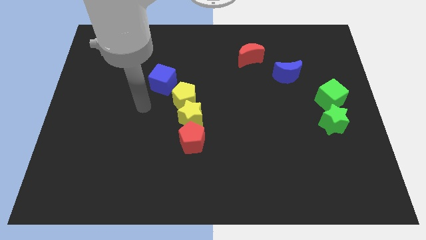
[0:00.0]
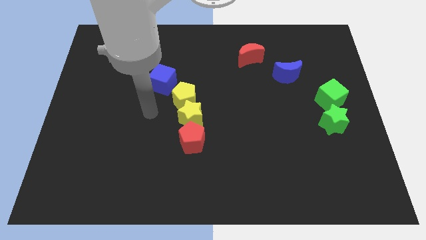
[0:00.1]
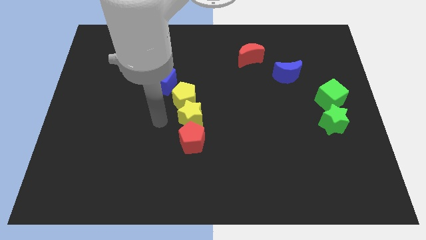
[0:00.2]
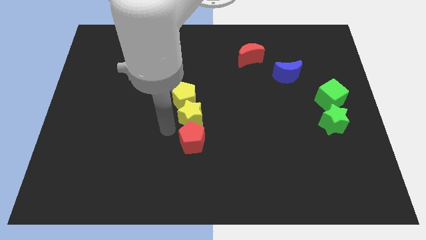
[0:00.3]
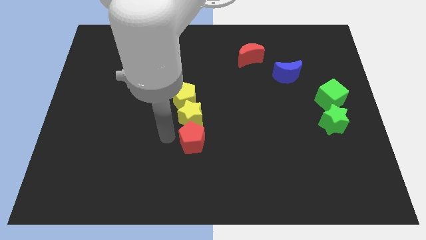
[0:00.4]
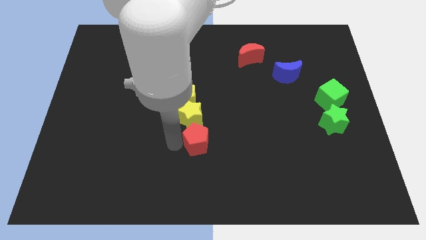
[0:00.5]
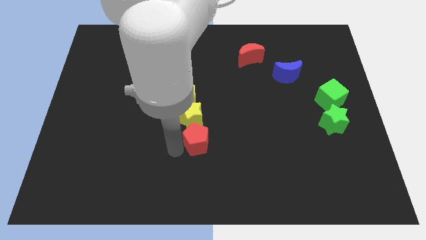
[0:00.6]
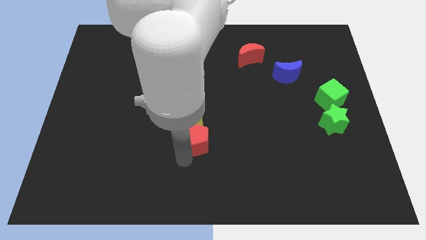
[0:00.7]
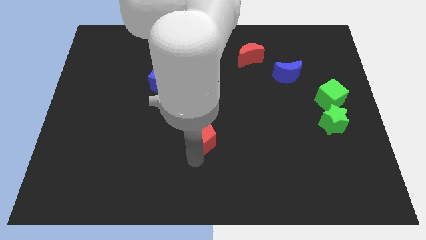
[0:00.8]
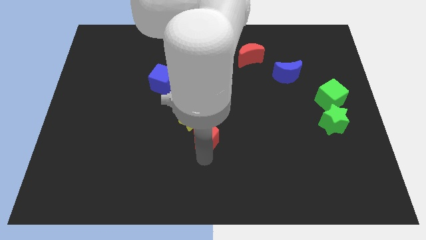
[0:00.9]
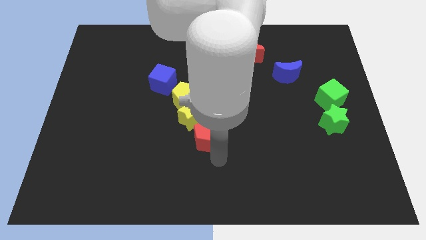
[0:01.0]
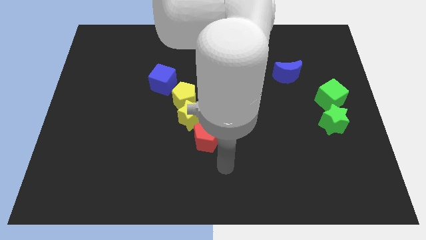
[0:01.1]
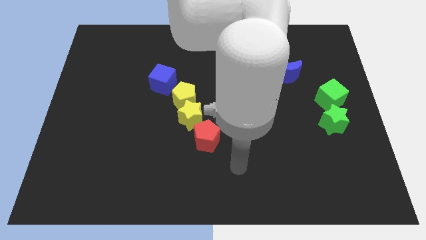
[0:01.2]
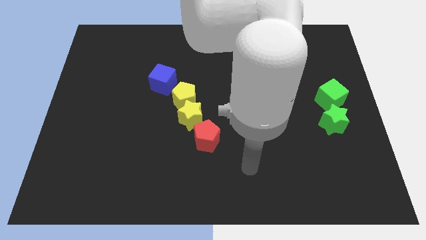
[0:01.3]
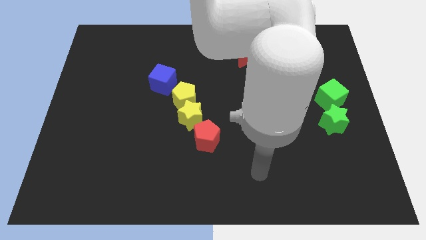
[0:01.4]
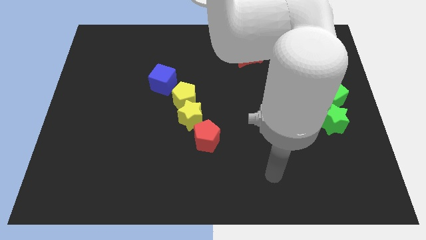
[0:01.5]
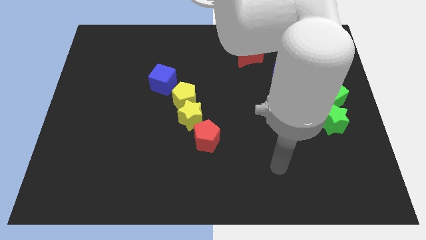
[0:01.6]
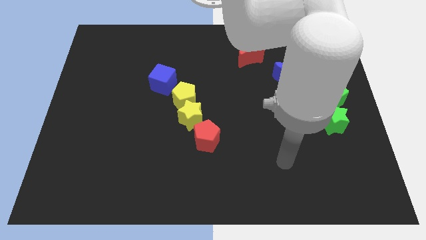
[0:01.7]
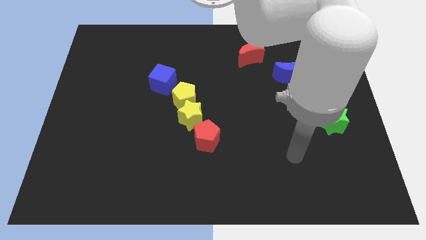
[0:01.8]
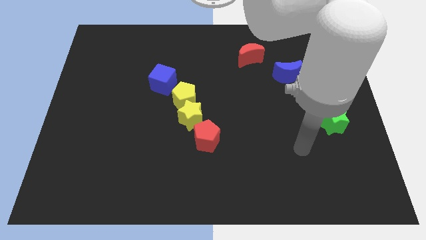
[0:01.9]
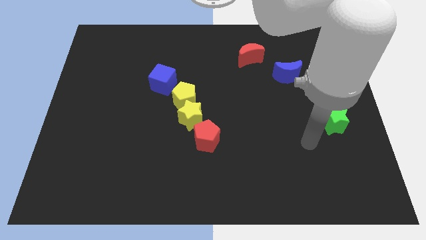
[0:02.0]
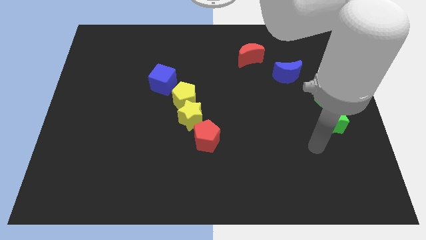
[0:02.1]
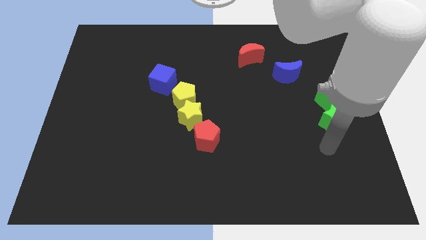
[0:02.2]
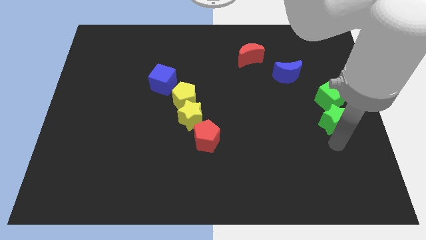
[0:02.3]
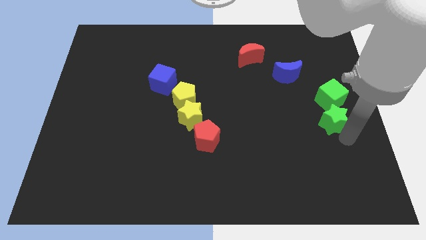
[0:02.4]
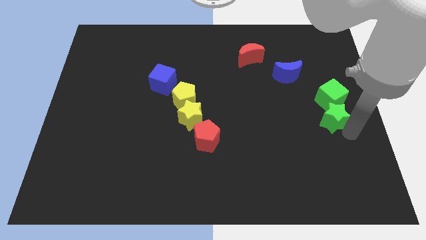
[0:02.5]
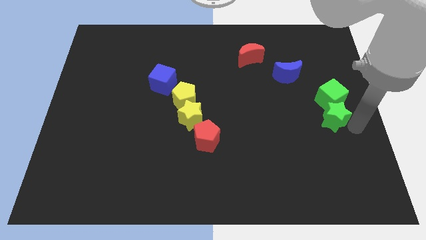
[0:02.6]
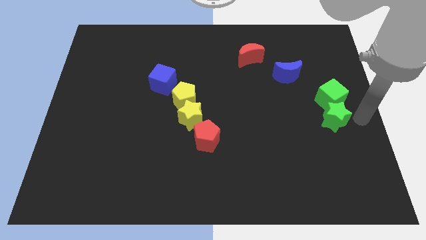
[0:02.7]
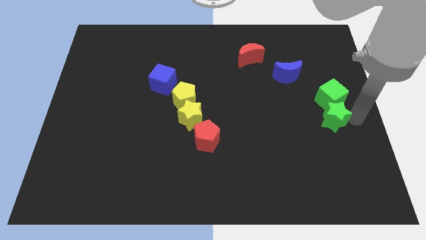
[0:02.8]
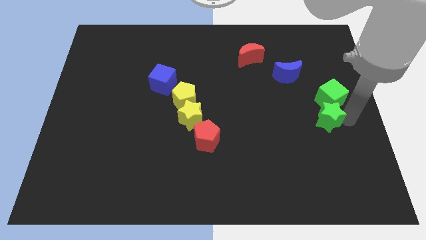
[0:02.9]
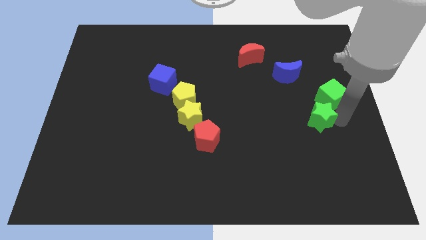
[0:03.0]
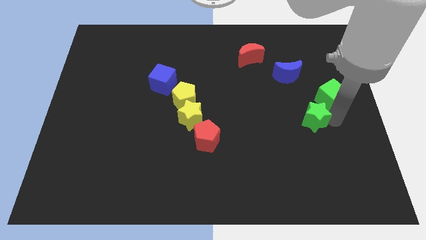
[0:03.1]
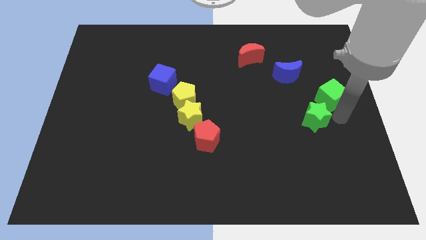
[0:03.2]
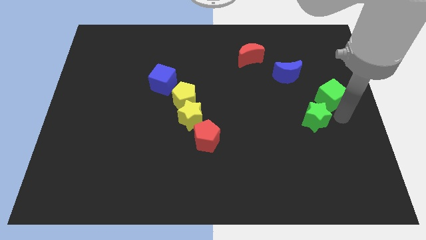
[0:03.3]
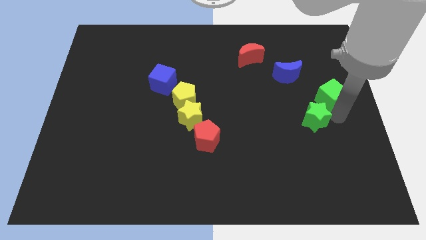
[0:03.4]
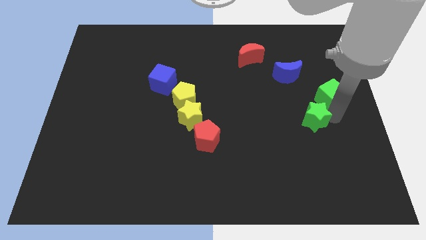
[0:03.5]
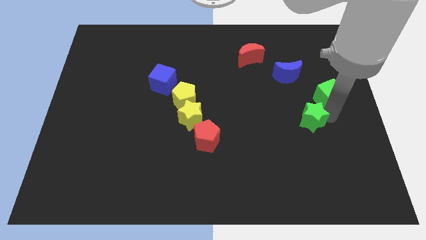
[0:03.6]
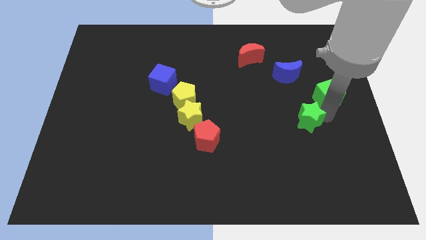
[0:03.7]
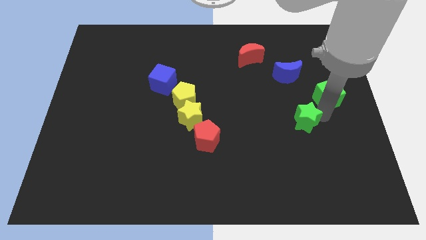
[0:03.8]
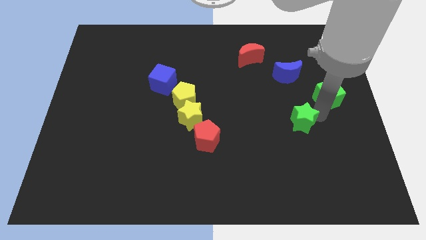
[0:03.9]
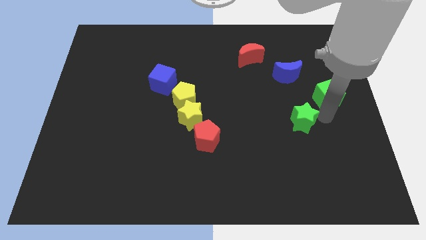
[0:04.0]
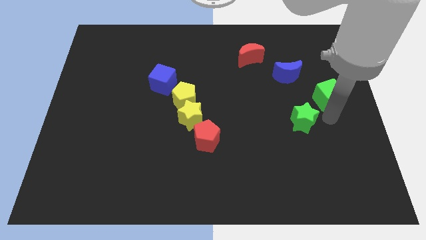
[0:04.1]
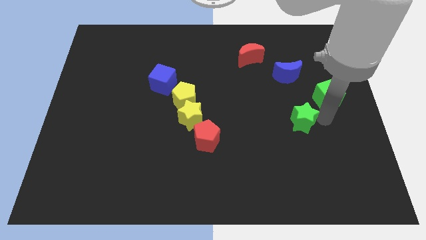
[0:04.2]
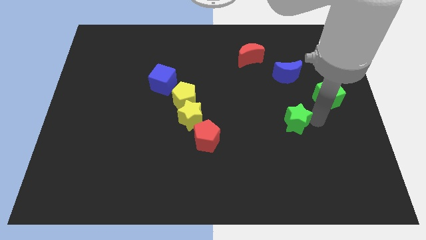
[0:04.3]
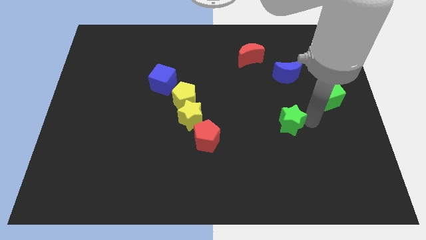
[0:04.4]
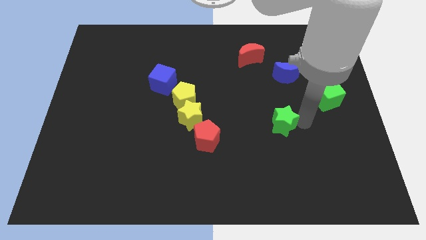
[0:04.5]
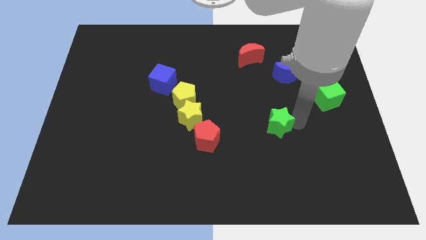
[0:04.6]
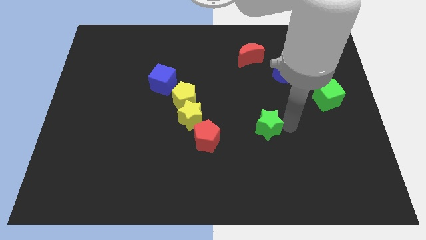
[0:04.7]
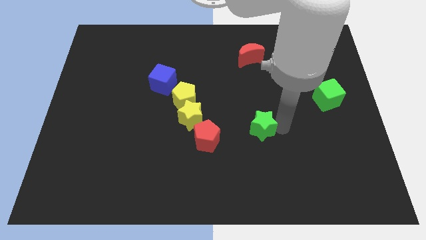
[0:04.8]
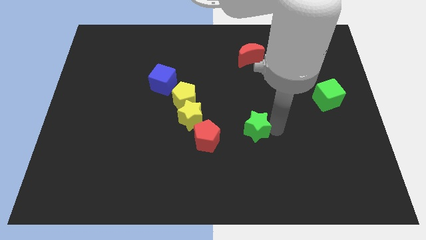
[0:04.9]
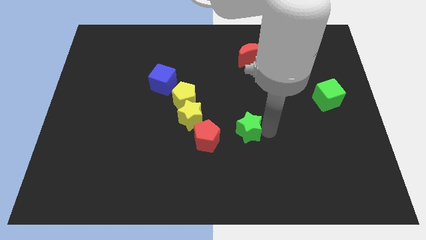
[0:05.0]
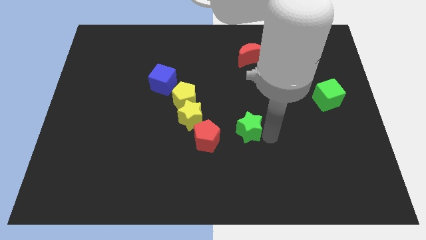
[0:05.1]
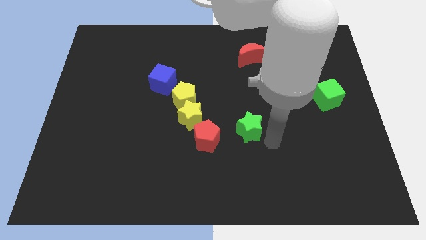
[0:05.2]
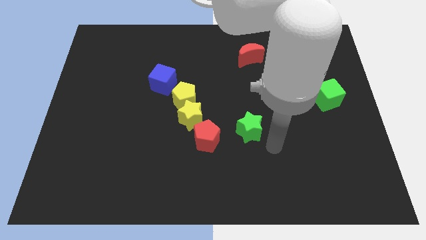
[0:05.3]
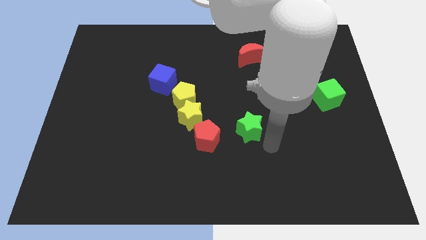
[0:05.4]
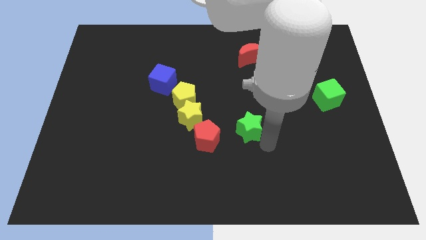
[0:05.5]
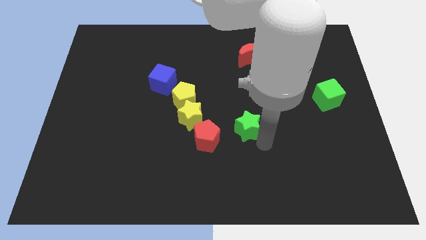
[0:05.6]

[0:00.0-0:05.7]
slide the green star to the top right of the red pentagon

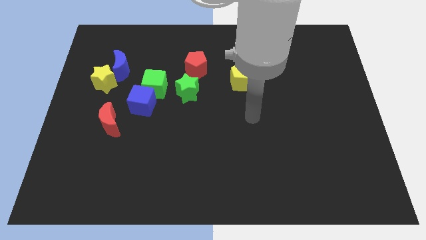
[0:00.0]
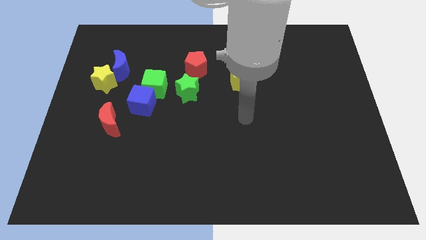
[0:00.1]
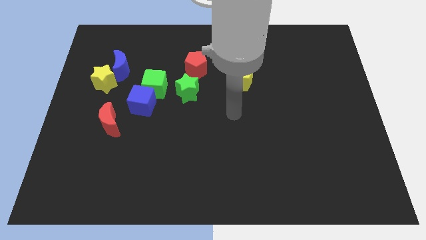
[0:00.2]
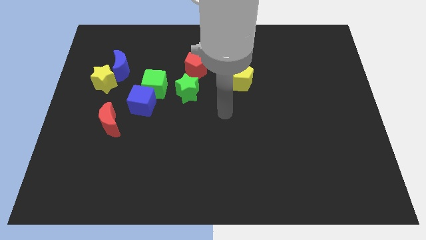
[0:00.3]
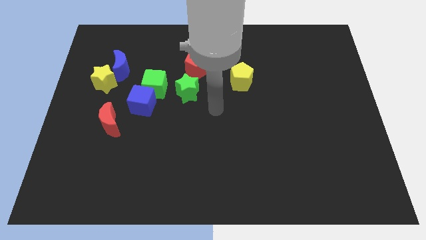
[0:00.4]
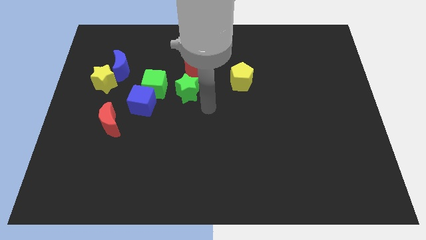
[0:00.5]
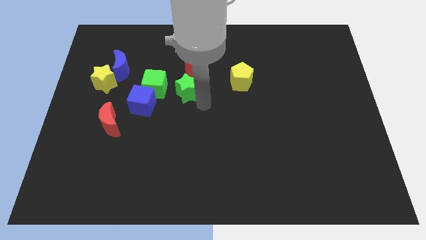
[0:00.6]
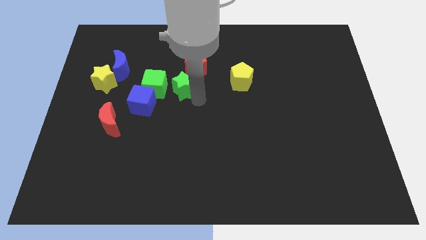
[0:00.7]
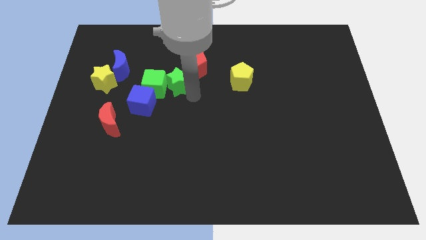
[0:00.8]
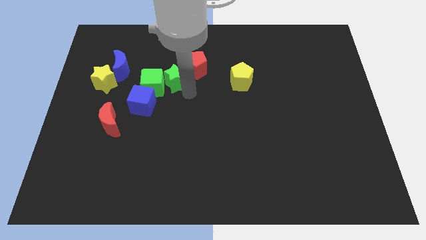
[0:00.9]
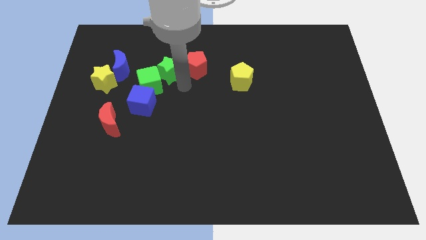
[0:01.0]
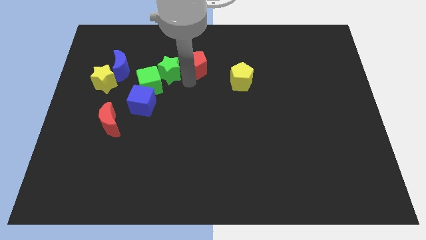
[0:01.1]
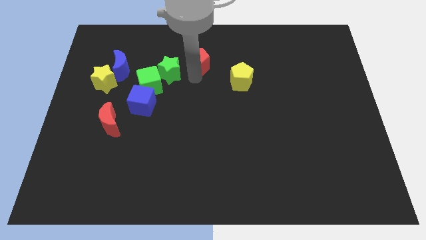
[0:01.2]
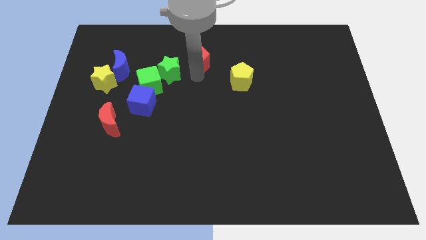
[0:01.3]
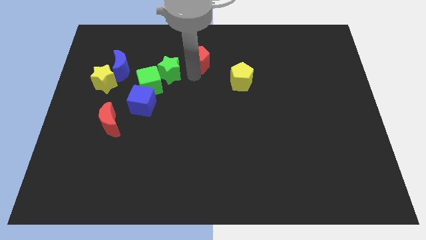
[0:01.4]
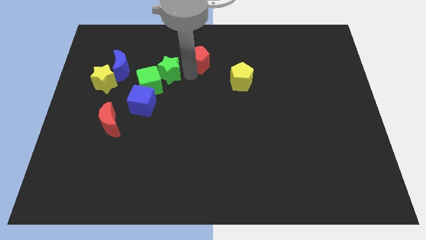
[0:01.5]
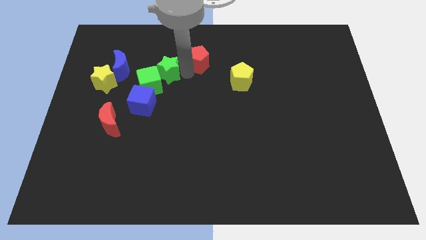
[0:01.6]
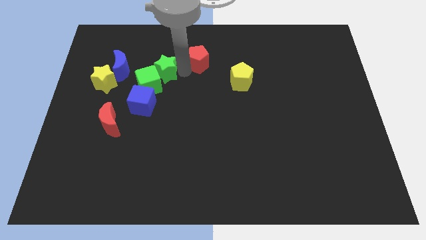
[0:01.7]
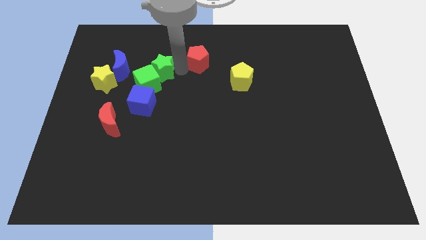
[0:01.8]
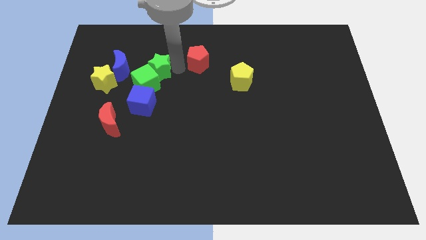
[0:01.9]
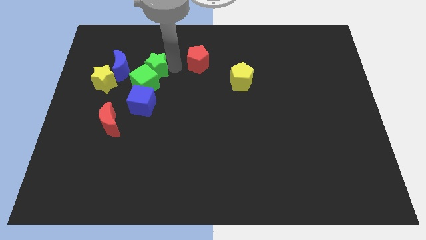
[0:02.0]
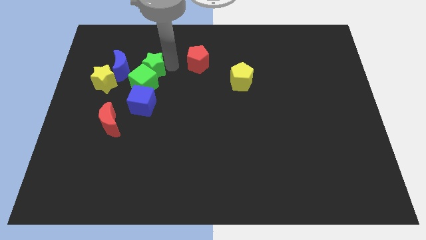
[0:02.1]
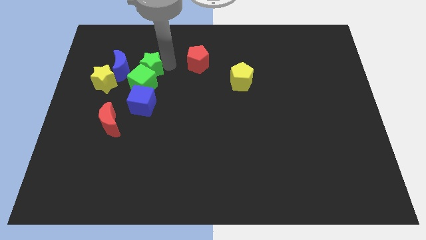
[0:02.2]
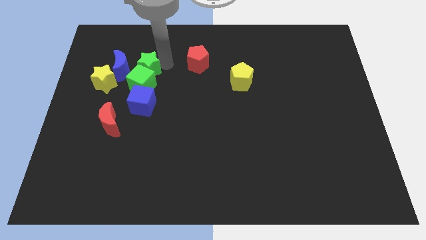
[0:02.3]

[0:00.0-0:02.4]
put the green star to the top left of the green cube
